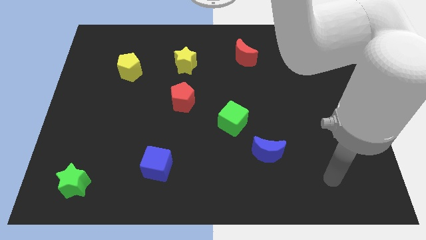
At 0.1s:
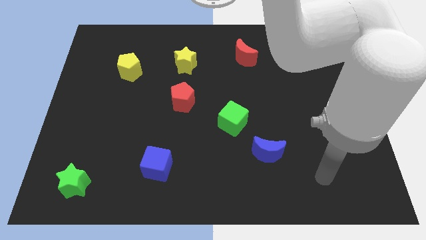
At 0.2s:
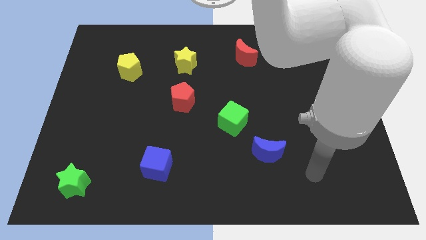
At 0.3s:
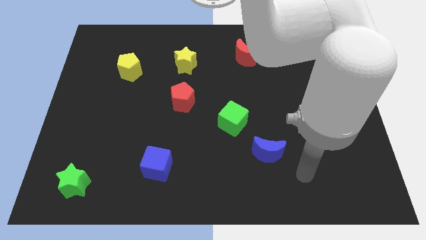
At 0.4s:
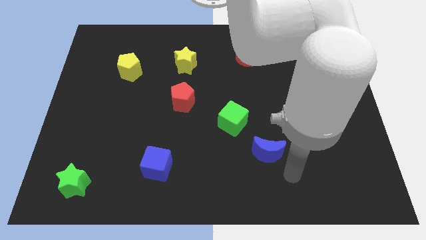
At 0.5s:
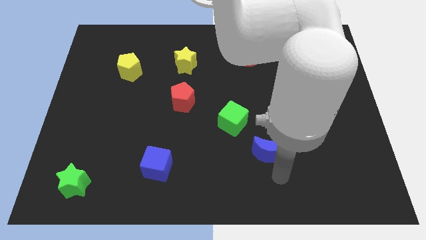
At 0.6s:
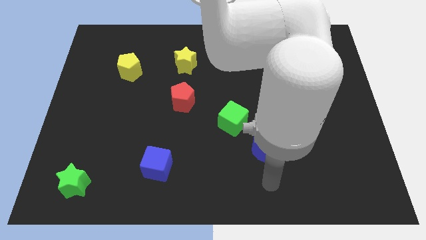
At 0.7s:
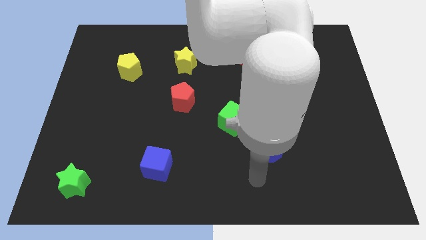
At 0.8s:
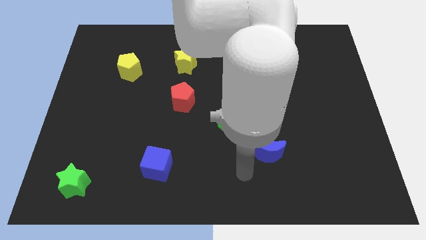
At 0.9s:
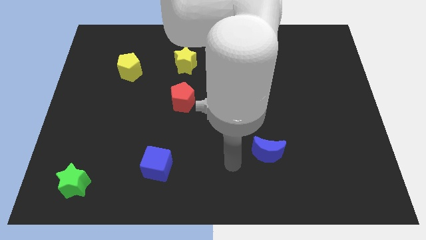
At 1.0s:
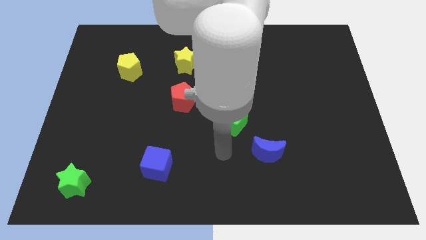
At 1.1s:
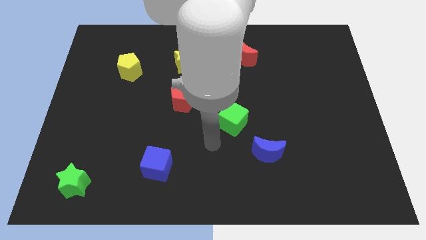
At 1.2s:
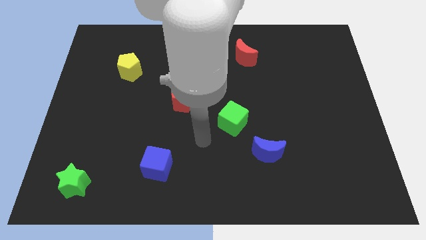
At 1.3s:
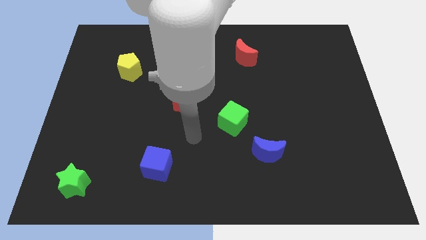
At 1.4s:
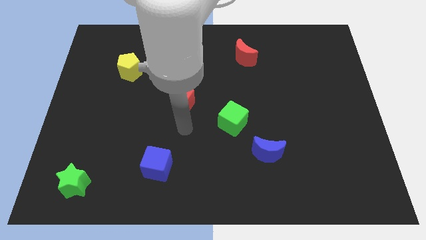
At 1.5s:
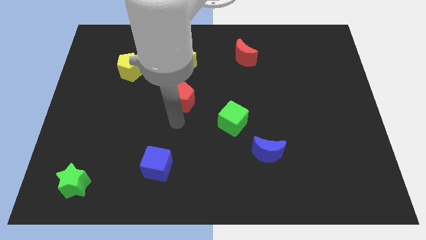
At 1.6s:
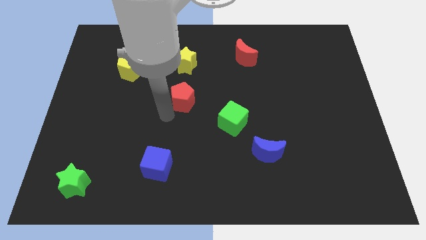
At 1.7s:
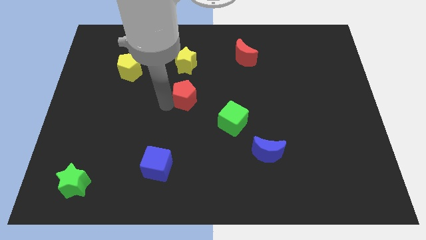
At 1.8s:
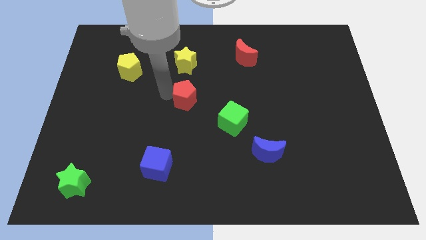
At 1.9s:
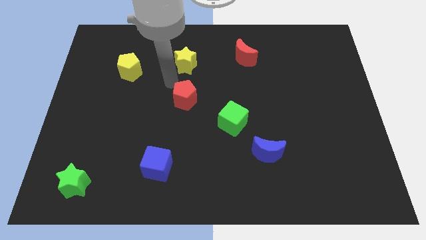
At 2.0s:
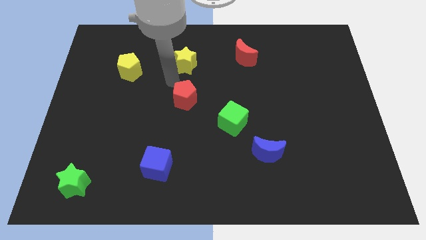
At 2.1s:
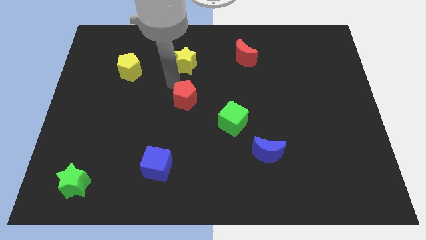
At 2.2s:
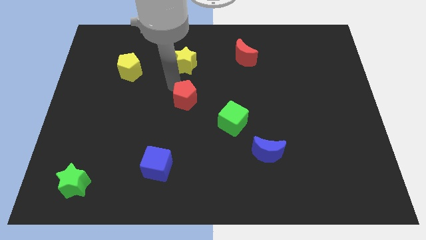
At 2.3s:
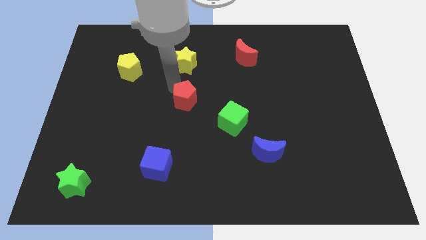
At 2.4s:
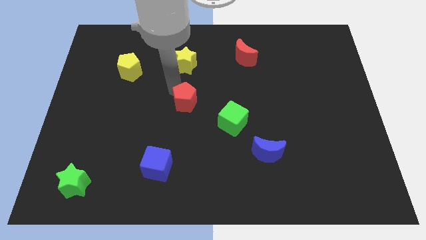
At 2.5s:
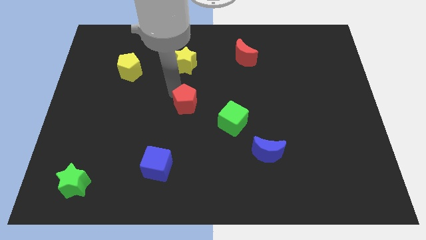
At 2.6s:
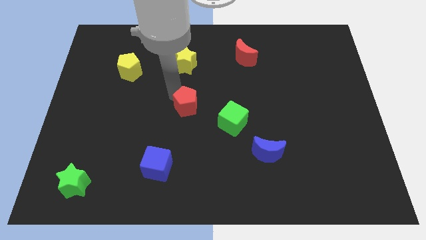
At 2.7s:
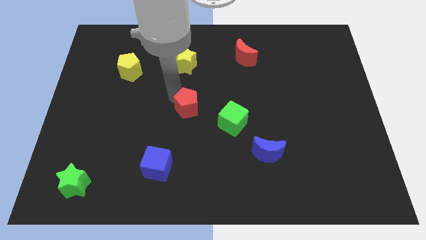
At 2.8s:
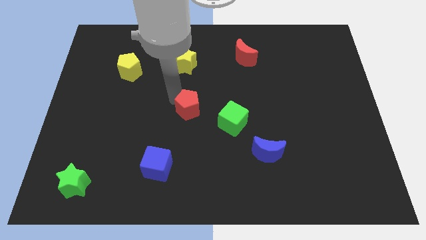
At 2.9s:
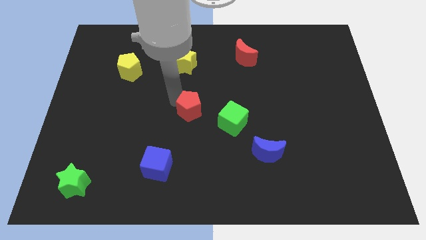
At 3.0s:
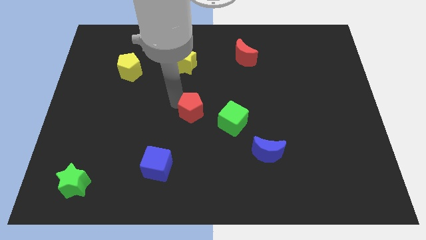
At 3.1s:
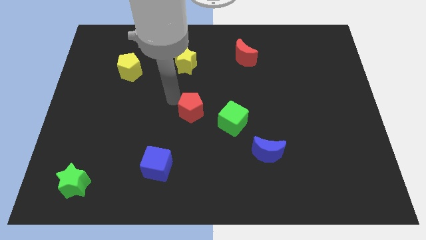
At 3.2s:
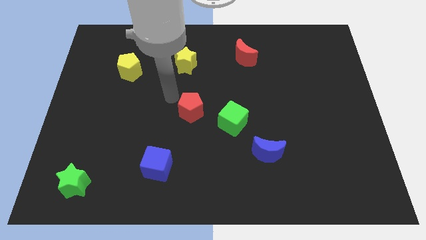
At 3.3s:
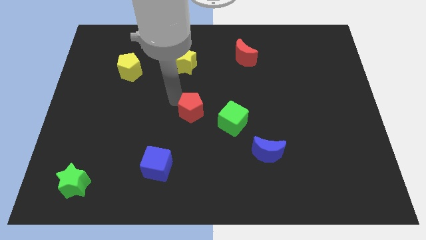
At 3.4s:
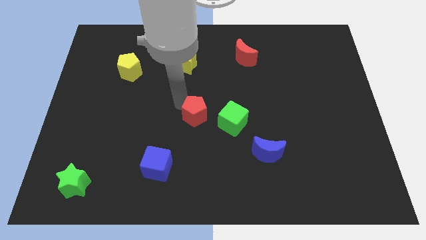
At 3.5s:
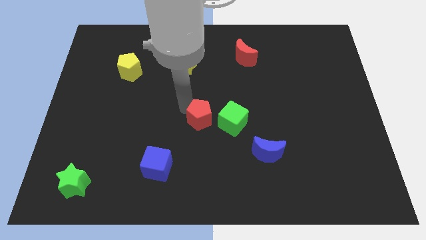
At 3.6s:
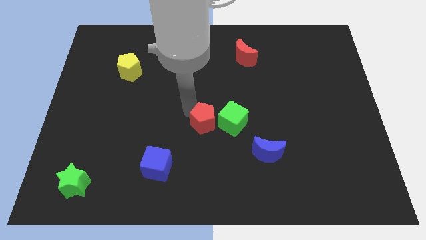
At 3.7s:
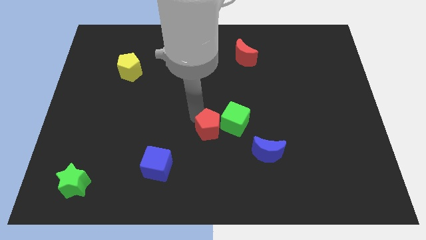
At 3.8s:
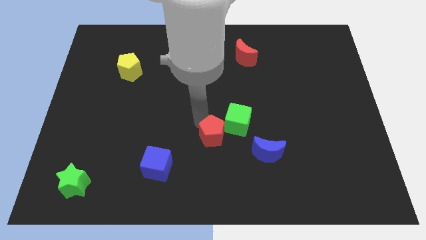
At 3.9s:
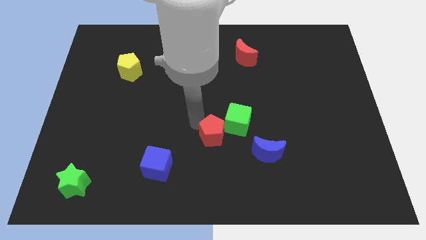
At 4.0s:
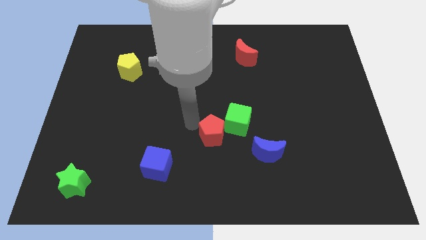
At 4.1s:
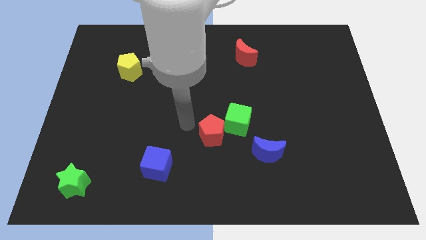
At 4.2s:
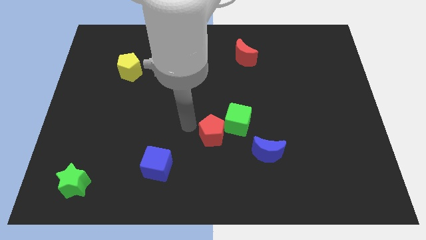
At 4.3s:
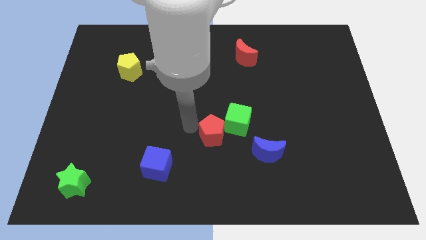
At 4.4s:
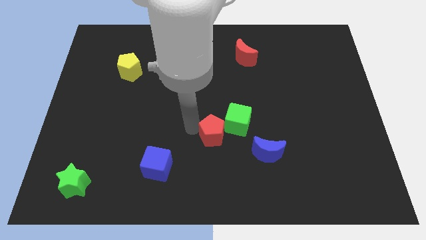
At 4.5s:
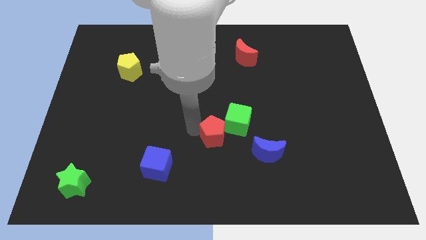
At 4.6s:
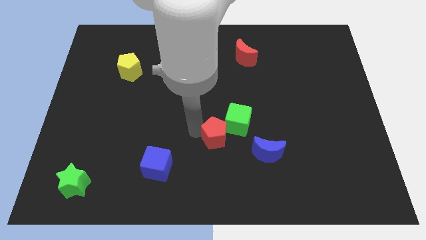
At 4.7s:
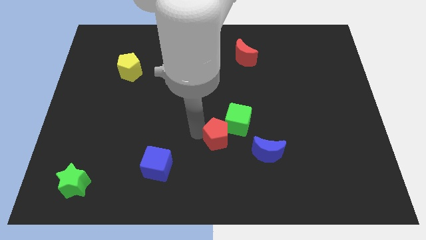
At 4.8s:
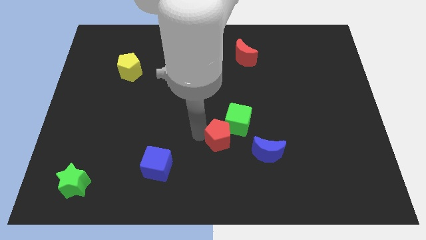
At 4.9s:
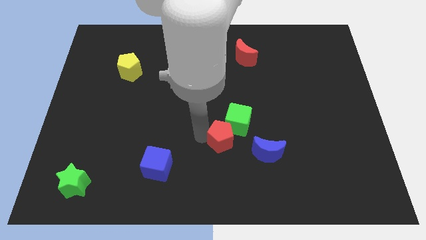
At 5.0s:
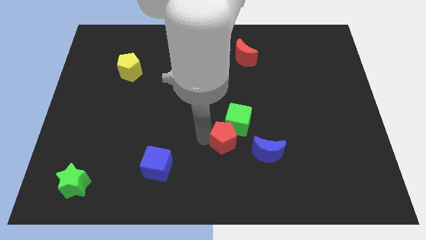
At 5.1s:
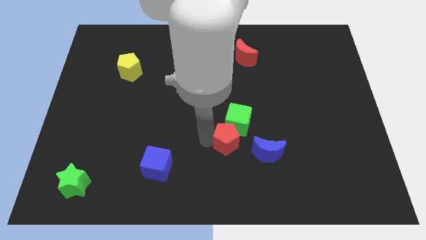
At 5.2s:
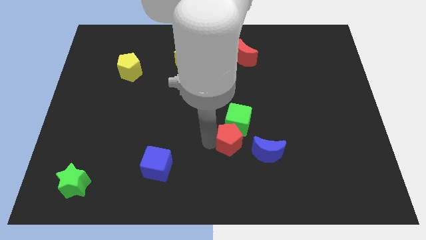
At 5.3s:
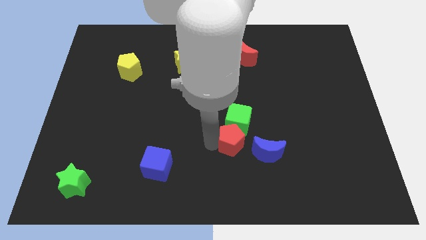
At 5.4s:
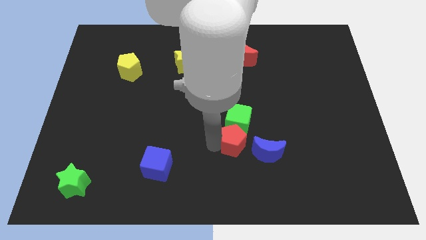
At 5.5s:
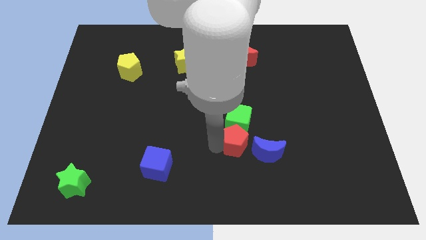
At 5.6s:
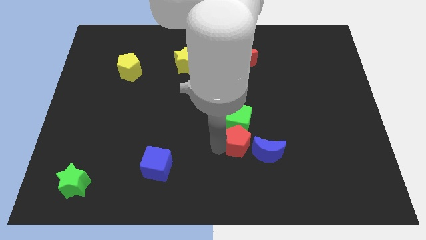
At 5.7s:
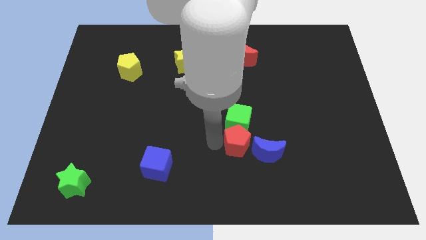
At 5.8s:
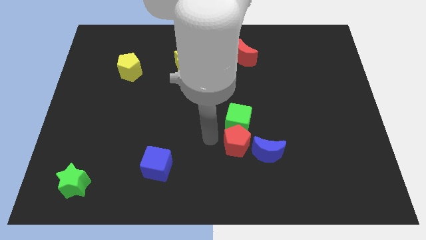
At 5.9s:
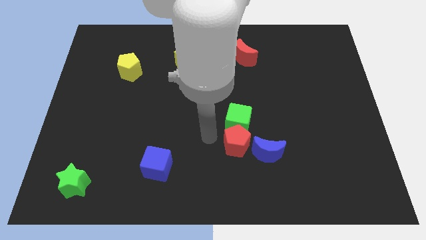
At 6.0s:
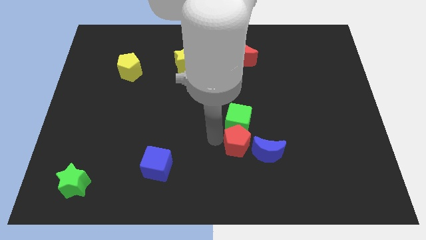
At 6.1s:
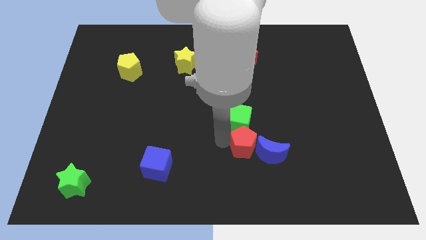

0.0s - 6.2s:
slide the red pentagon towards the blue moon

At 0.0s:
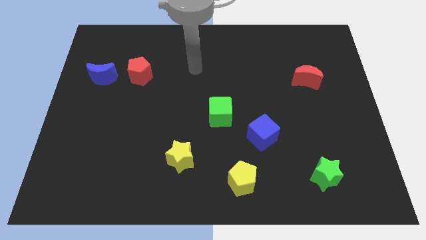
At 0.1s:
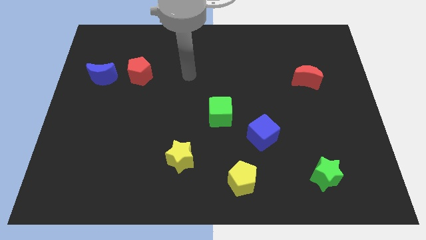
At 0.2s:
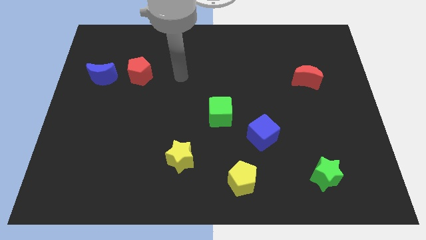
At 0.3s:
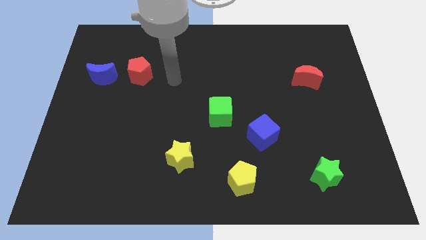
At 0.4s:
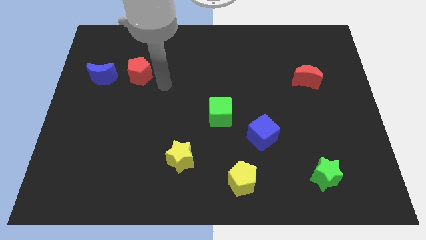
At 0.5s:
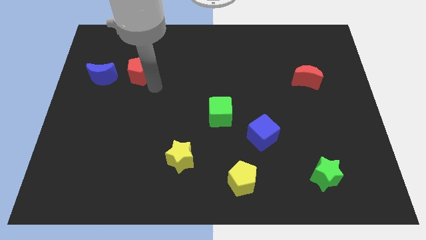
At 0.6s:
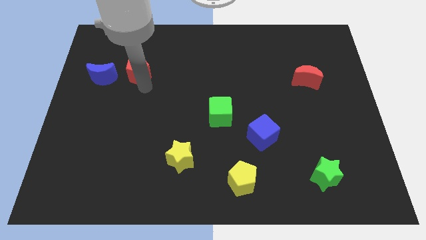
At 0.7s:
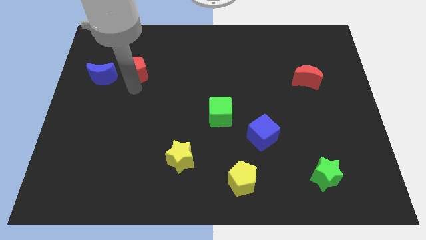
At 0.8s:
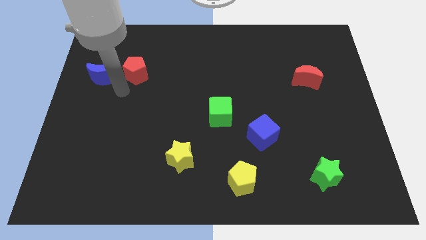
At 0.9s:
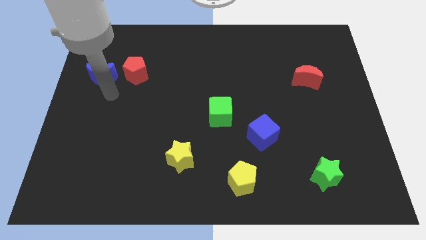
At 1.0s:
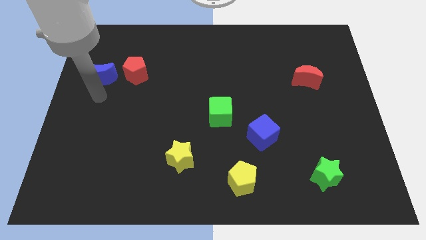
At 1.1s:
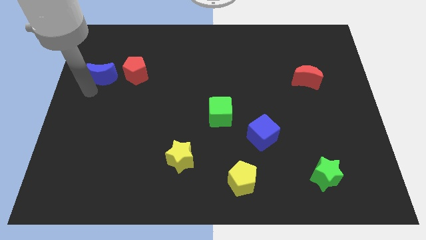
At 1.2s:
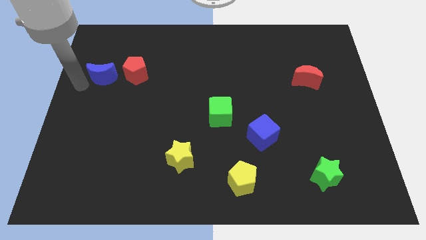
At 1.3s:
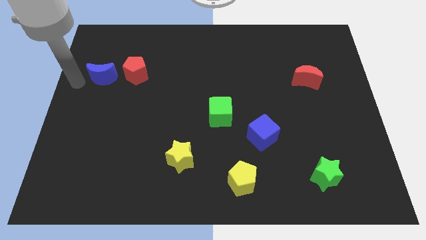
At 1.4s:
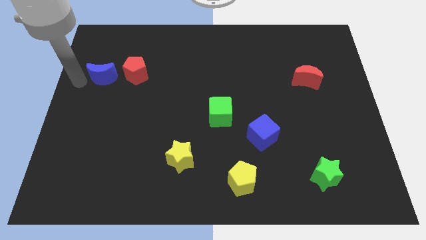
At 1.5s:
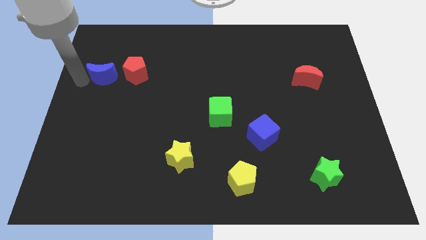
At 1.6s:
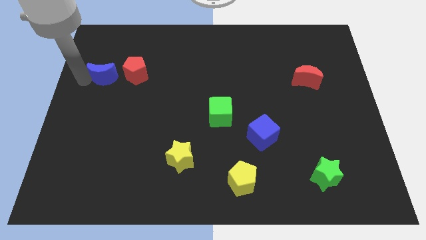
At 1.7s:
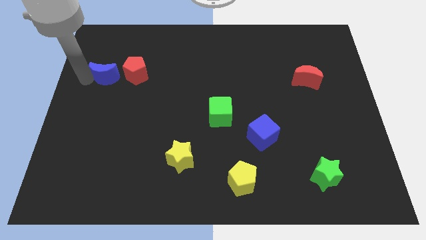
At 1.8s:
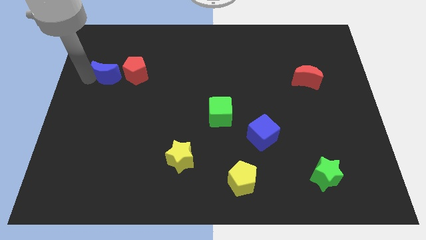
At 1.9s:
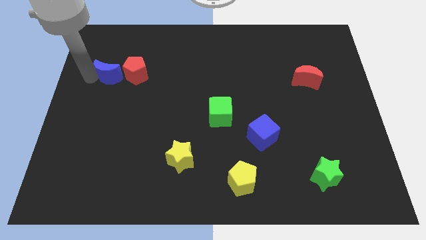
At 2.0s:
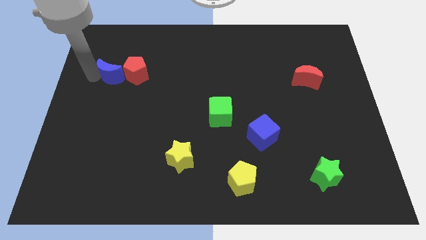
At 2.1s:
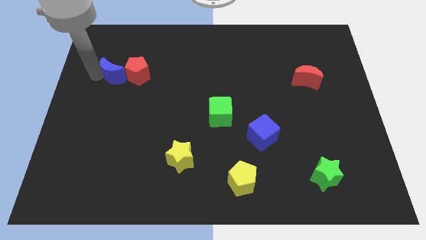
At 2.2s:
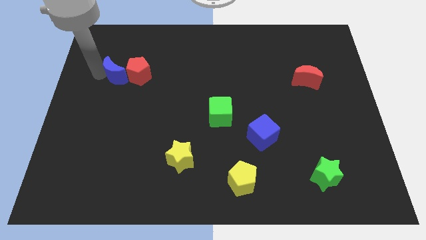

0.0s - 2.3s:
slide the blue moon close to the red pentagon
